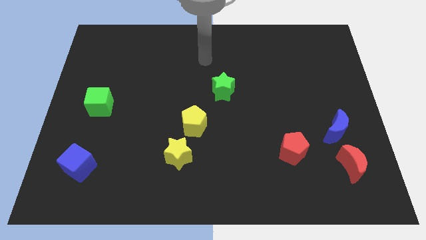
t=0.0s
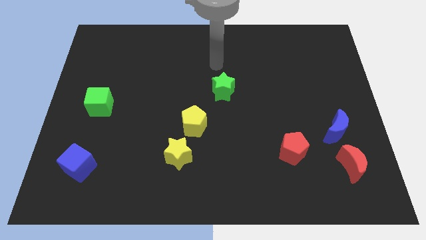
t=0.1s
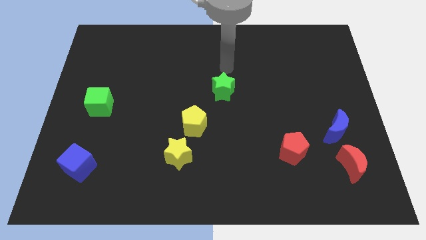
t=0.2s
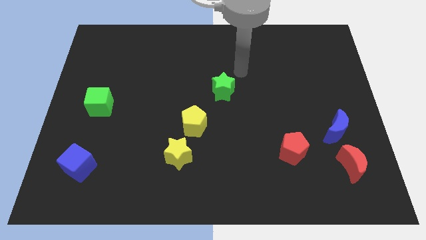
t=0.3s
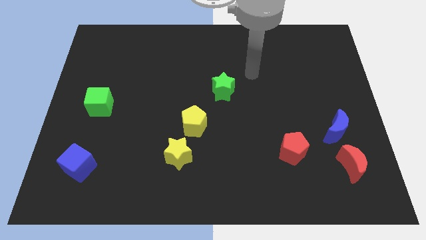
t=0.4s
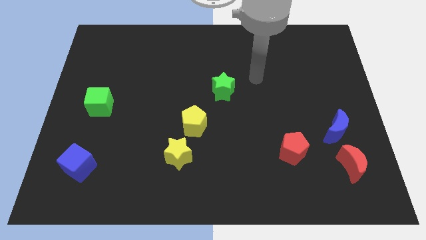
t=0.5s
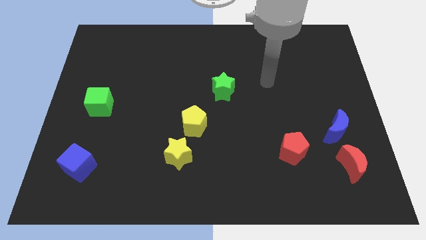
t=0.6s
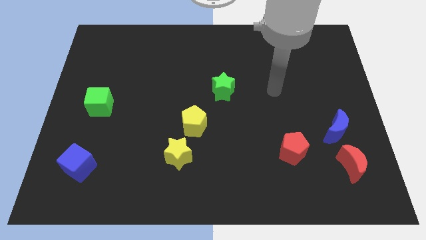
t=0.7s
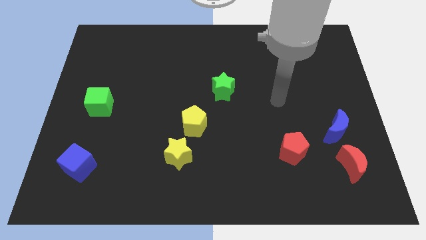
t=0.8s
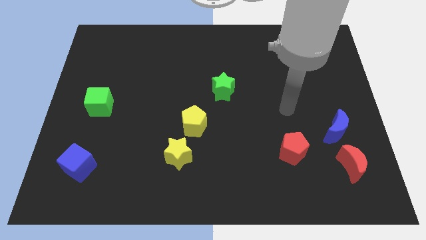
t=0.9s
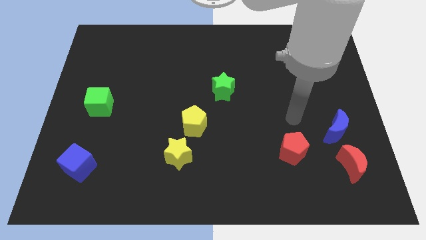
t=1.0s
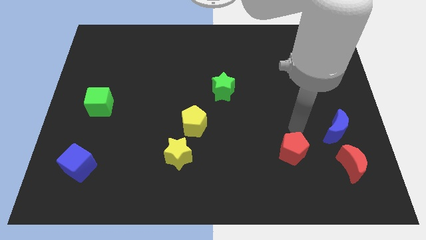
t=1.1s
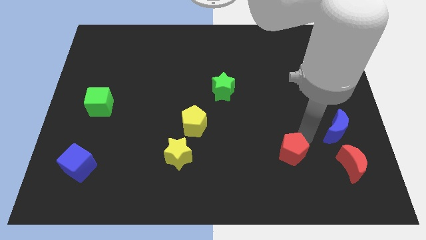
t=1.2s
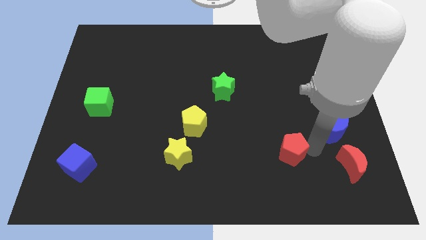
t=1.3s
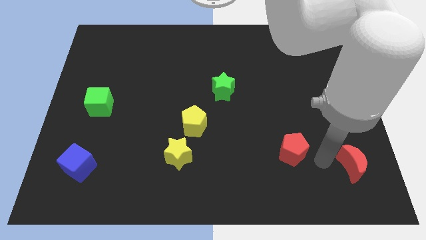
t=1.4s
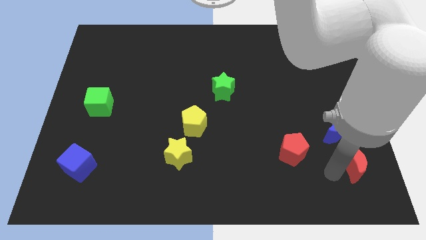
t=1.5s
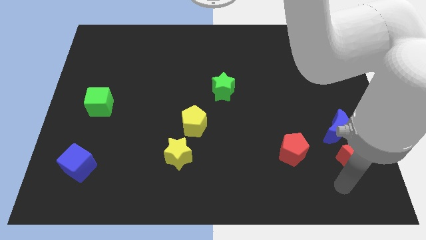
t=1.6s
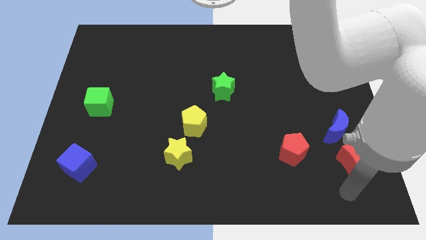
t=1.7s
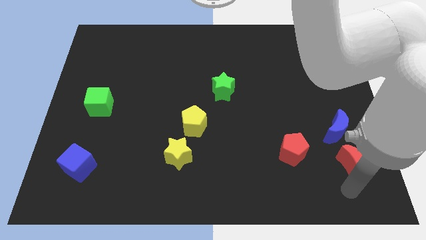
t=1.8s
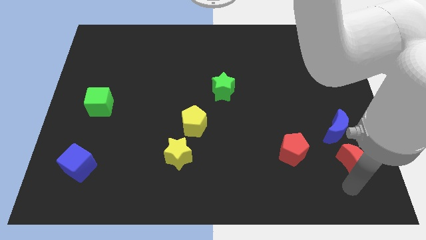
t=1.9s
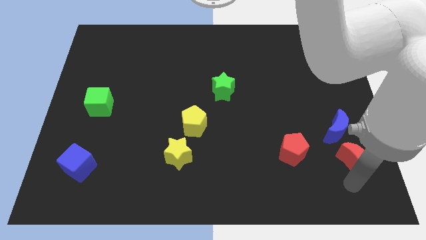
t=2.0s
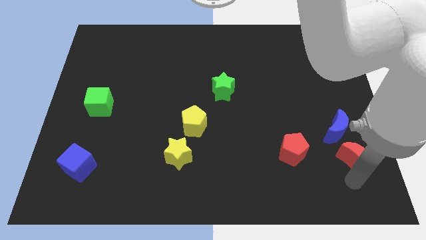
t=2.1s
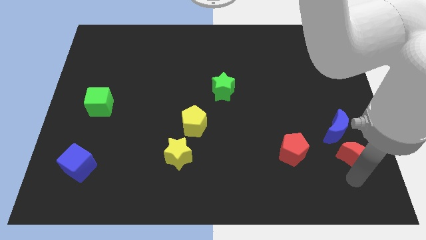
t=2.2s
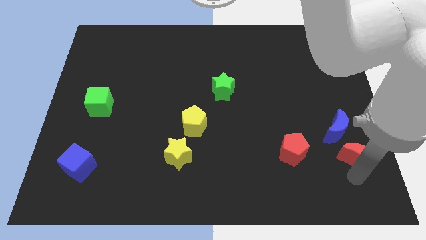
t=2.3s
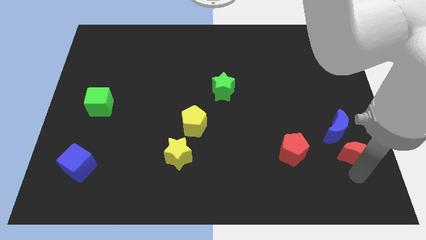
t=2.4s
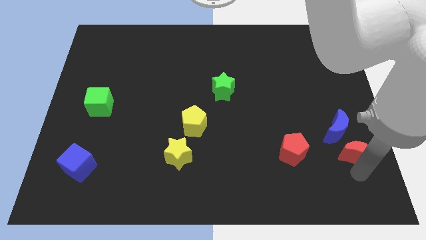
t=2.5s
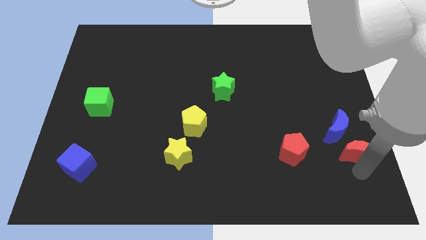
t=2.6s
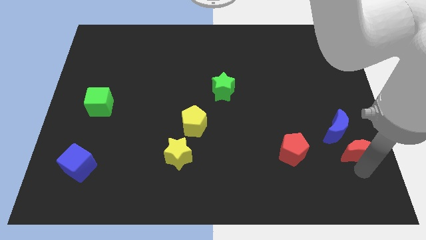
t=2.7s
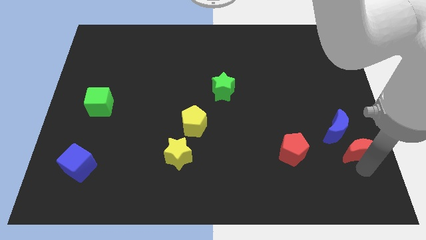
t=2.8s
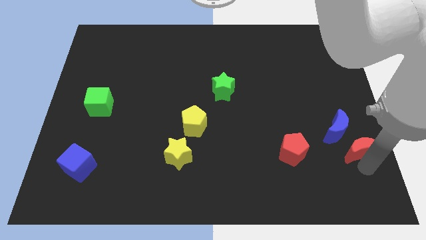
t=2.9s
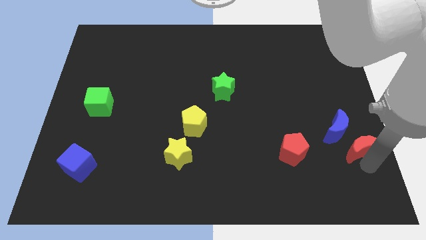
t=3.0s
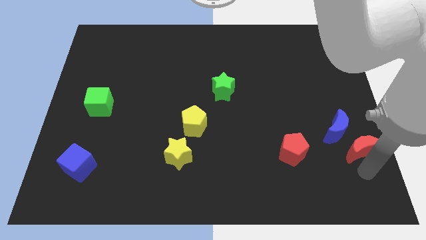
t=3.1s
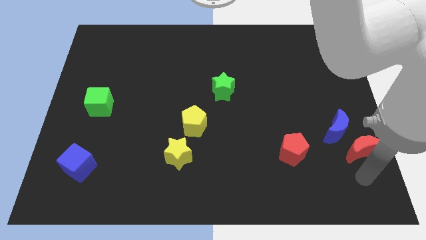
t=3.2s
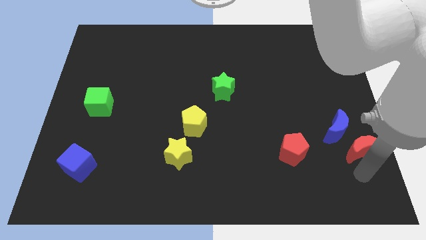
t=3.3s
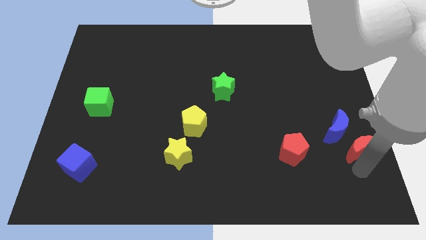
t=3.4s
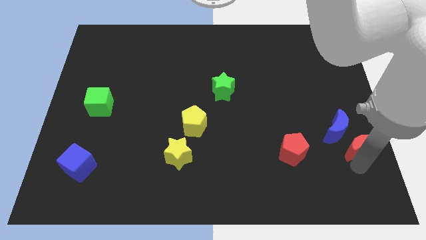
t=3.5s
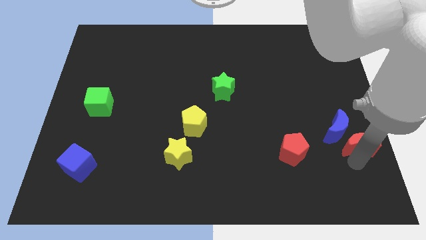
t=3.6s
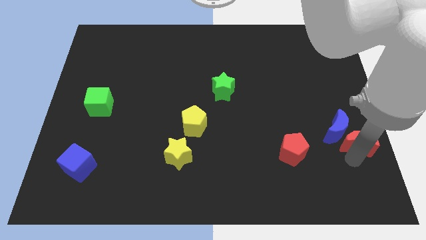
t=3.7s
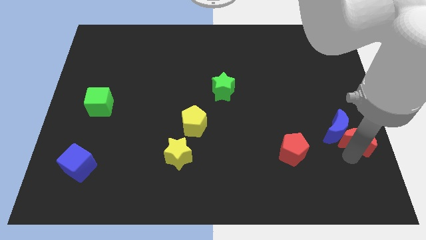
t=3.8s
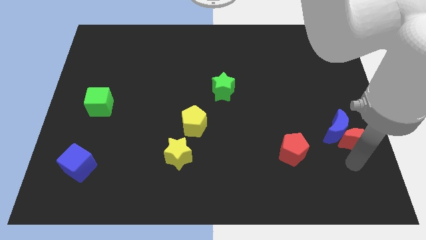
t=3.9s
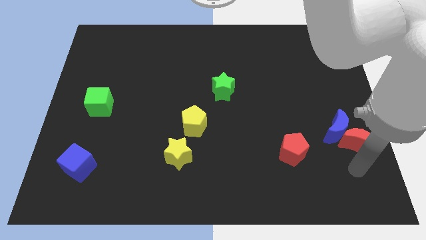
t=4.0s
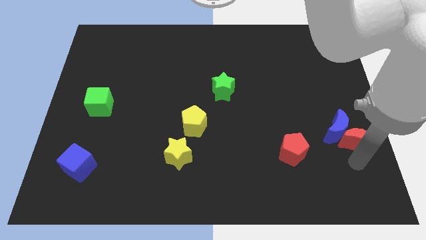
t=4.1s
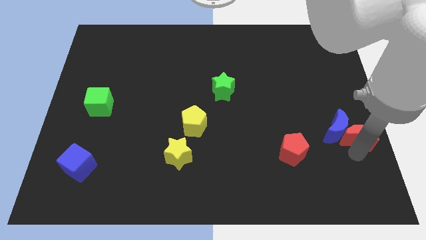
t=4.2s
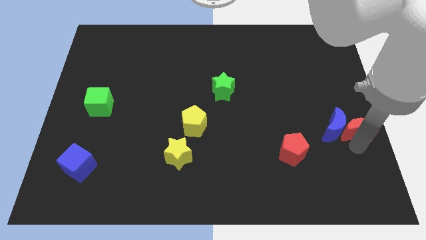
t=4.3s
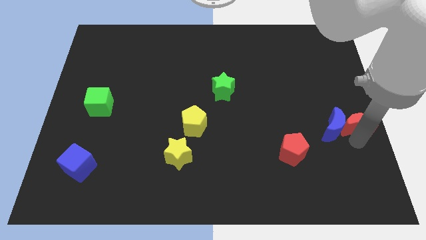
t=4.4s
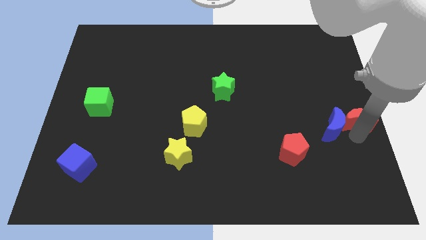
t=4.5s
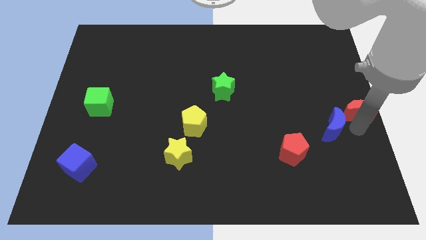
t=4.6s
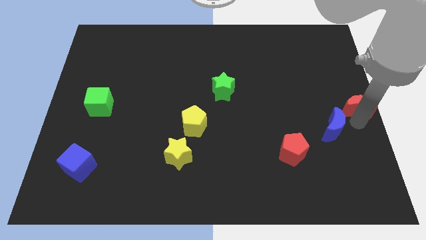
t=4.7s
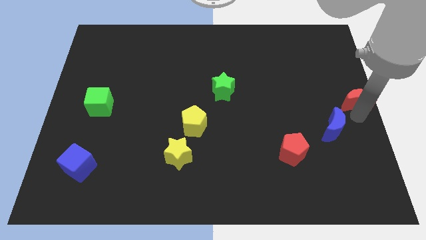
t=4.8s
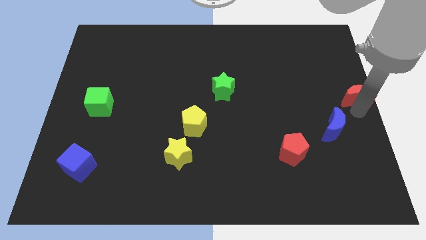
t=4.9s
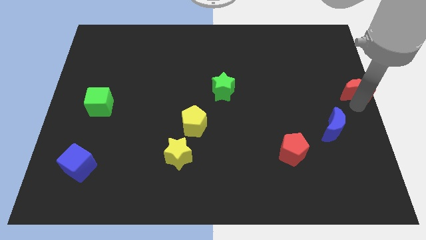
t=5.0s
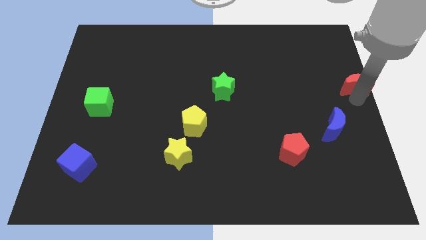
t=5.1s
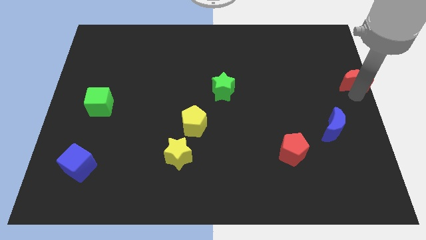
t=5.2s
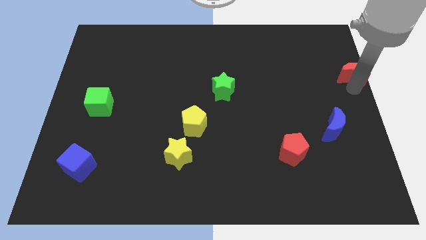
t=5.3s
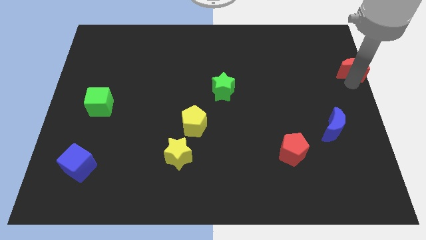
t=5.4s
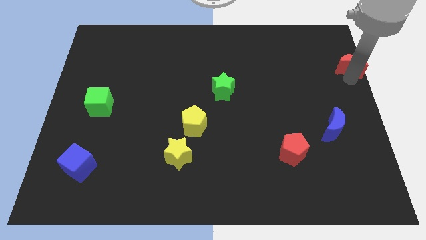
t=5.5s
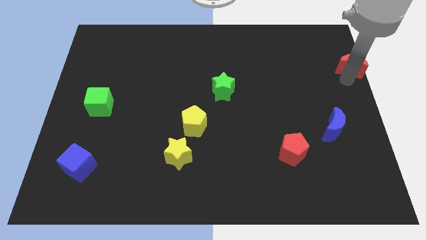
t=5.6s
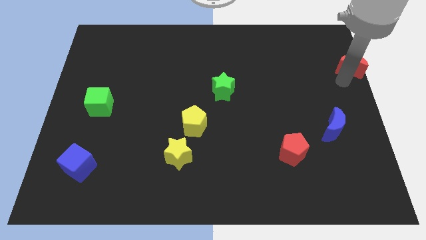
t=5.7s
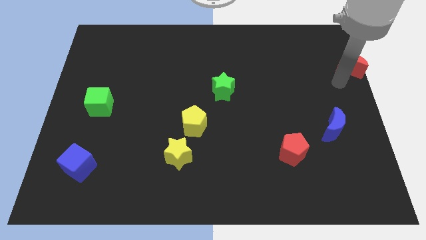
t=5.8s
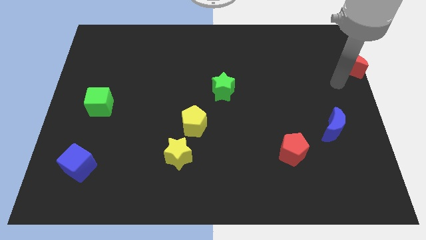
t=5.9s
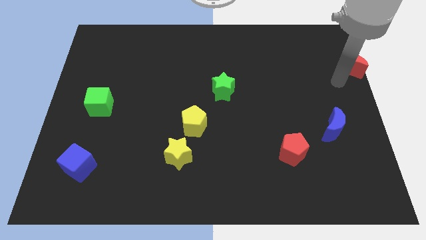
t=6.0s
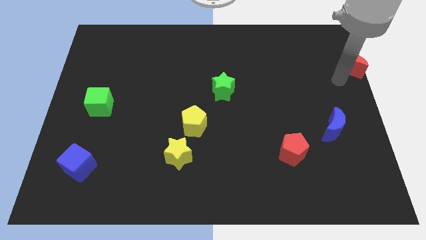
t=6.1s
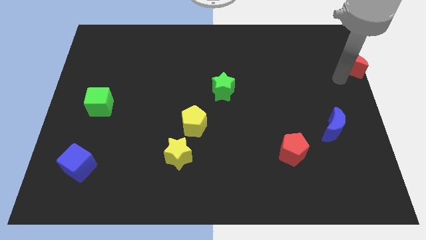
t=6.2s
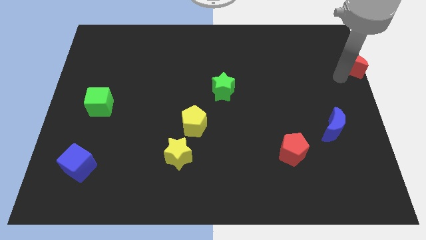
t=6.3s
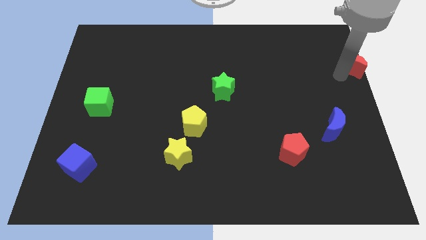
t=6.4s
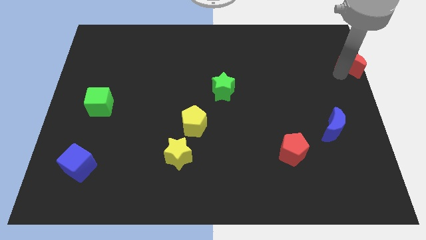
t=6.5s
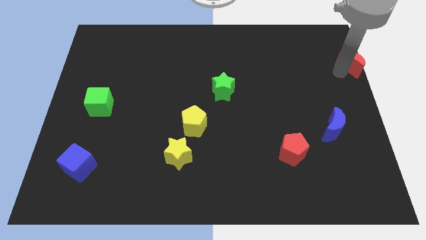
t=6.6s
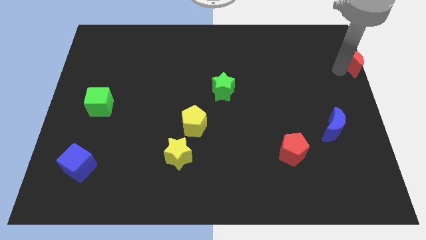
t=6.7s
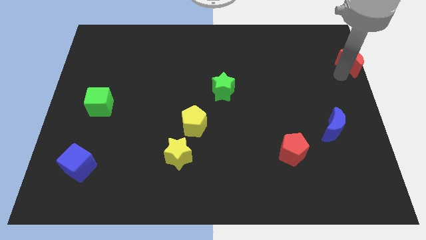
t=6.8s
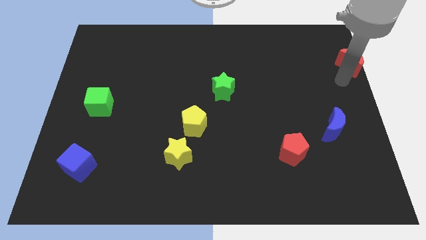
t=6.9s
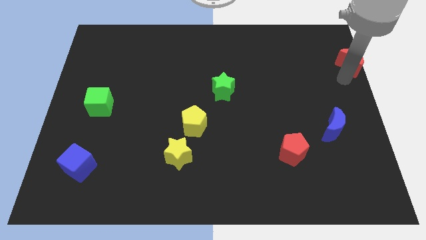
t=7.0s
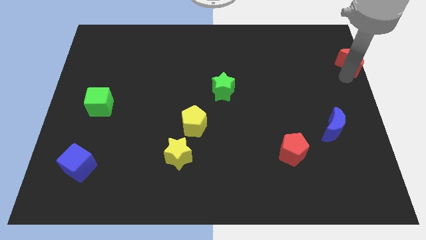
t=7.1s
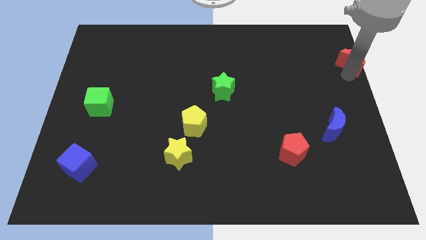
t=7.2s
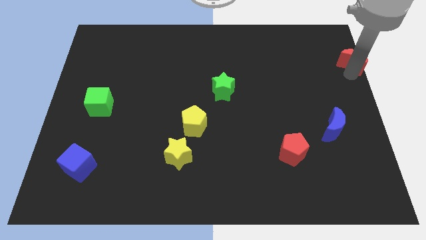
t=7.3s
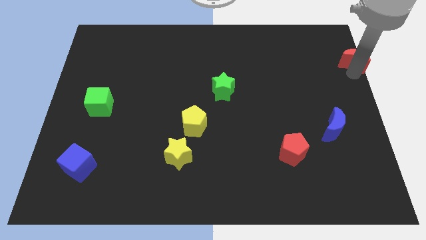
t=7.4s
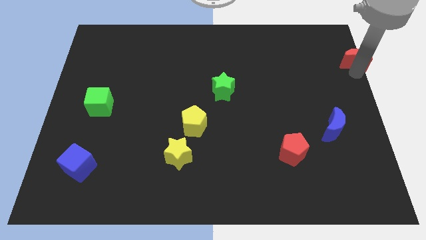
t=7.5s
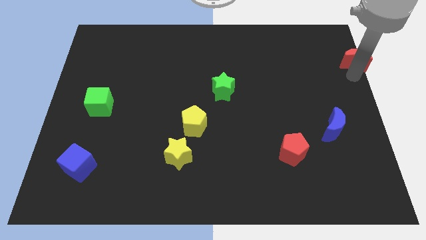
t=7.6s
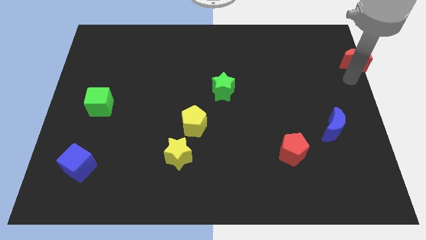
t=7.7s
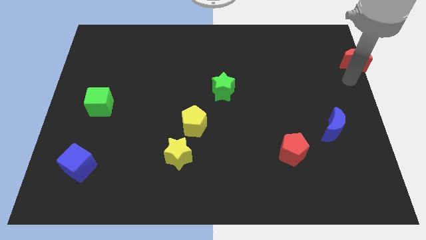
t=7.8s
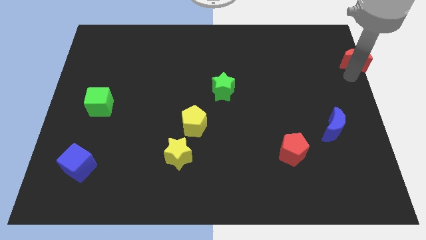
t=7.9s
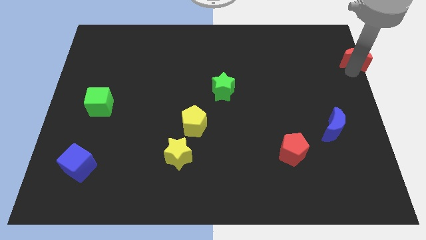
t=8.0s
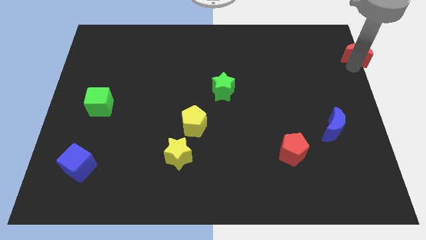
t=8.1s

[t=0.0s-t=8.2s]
push the red moon to the top right
